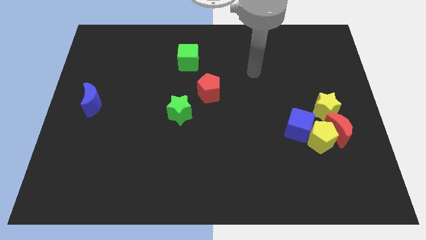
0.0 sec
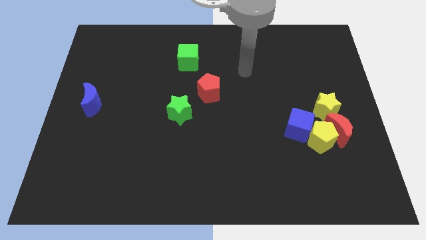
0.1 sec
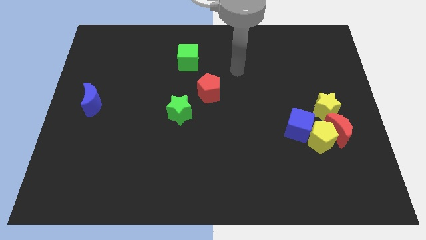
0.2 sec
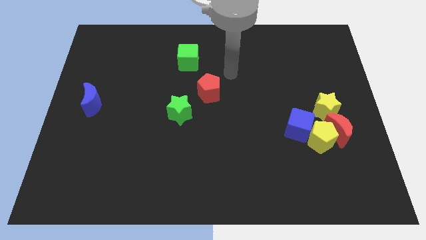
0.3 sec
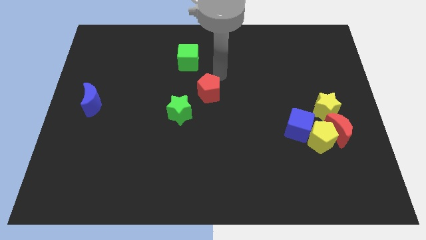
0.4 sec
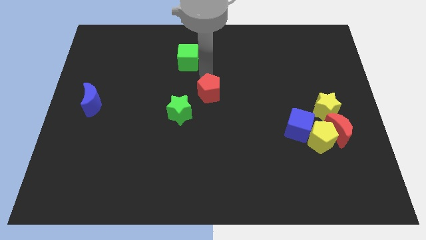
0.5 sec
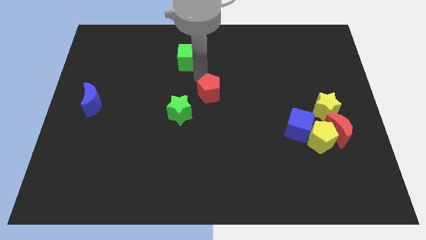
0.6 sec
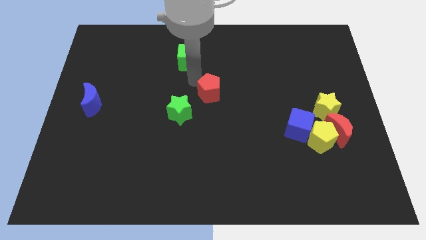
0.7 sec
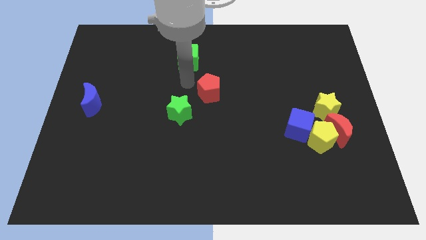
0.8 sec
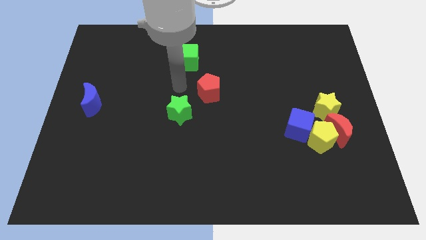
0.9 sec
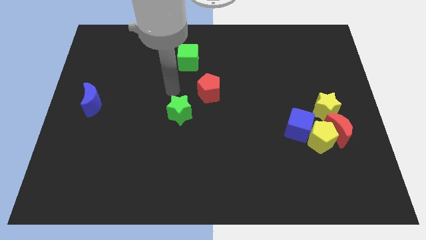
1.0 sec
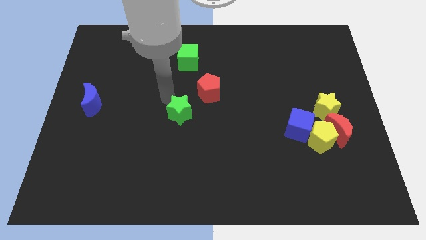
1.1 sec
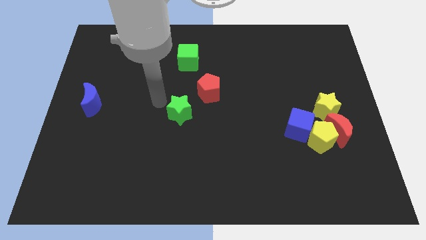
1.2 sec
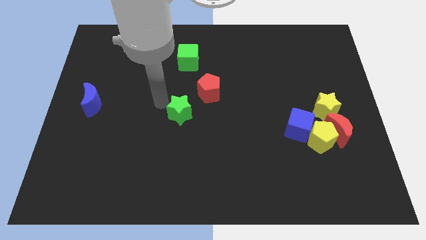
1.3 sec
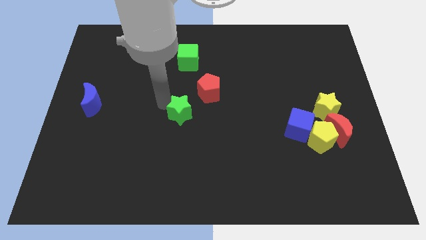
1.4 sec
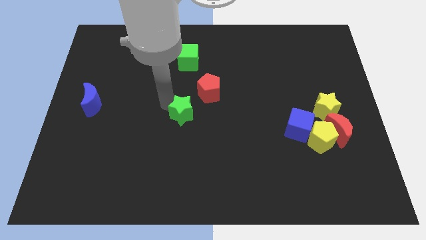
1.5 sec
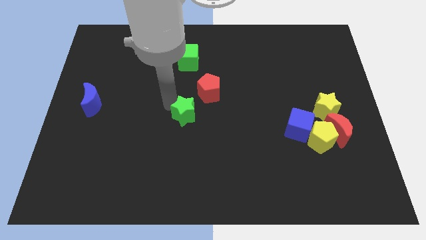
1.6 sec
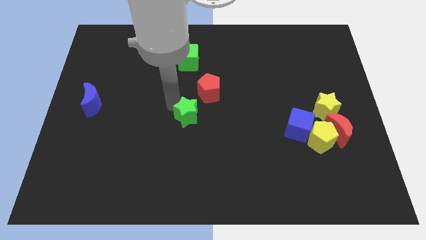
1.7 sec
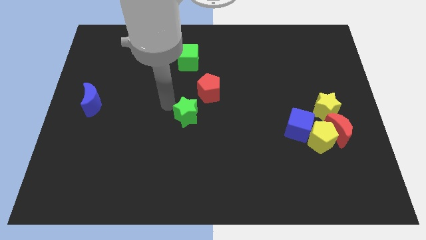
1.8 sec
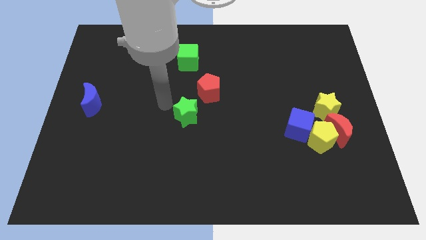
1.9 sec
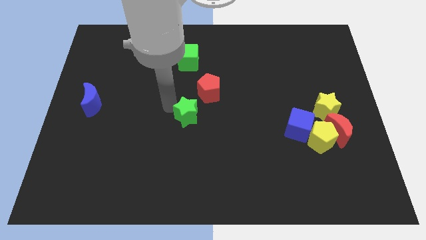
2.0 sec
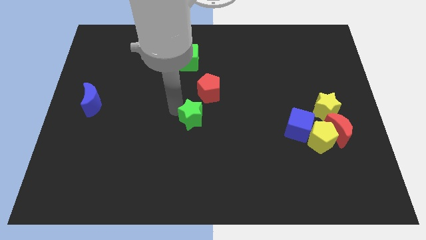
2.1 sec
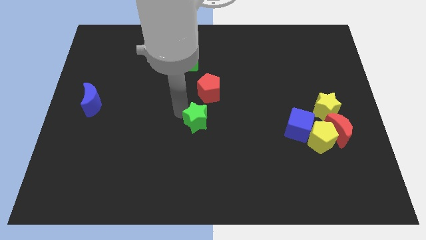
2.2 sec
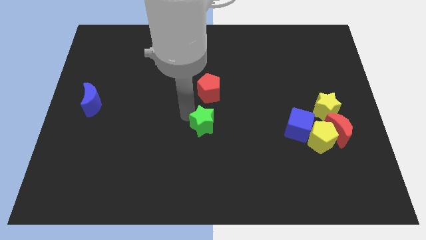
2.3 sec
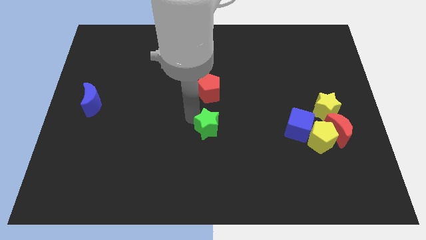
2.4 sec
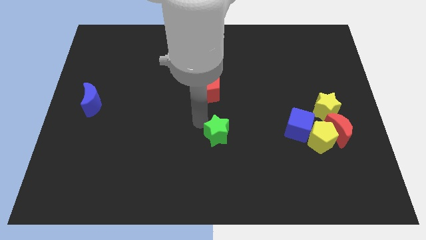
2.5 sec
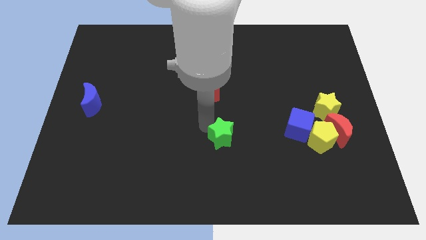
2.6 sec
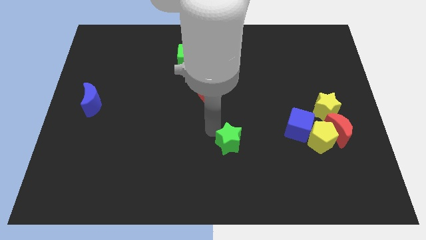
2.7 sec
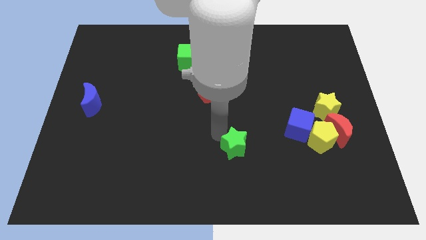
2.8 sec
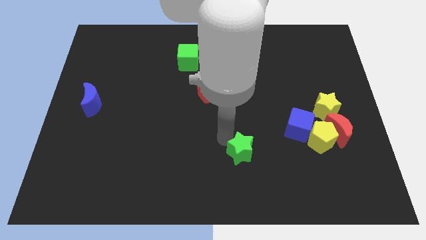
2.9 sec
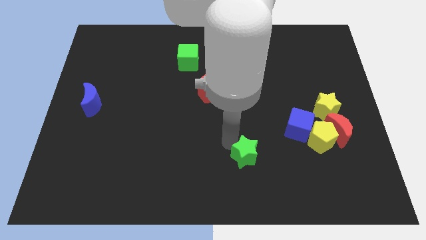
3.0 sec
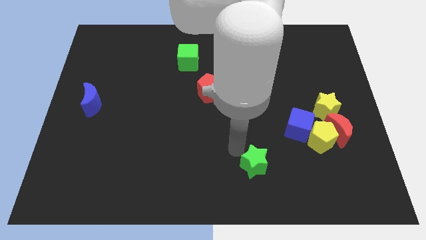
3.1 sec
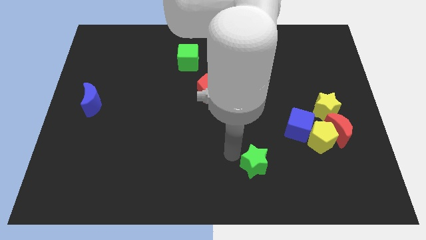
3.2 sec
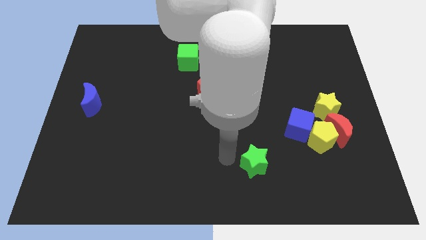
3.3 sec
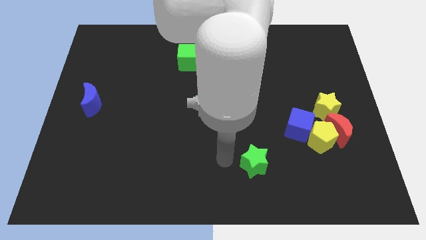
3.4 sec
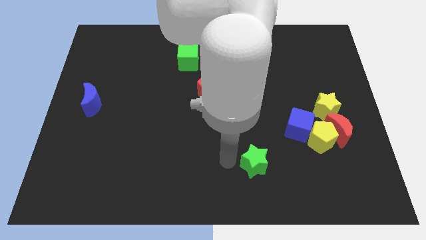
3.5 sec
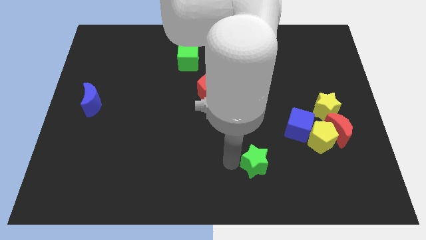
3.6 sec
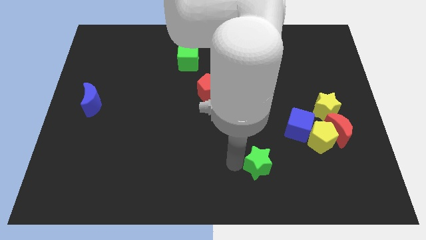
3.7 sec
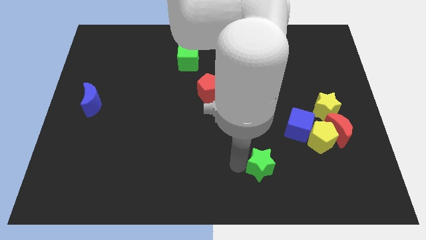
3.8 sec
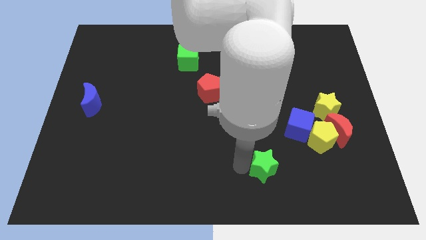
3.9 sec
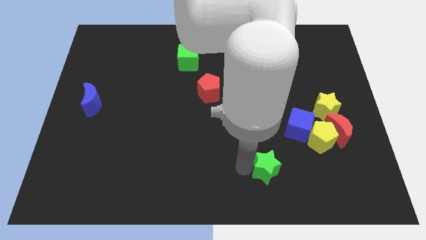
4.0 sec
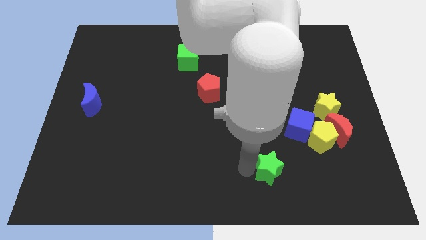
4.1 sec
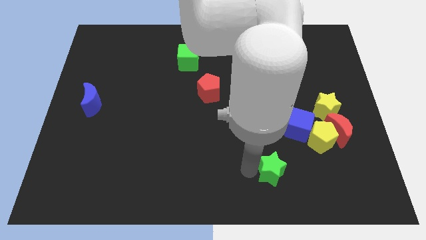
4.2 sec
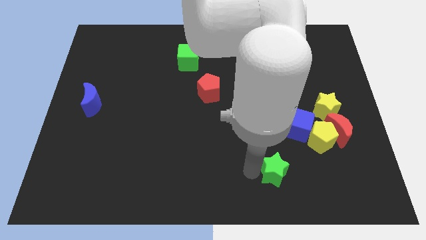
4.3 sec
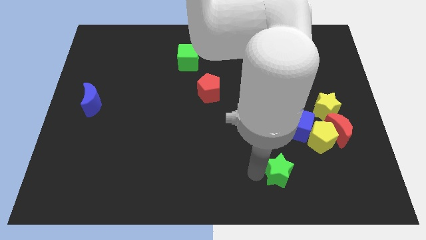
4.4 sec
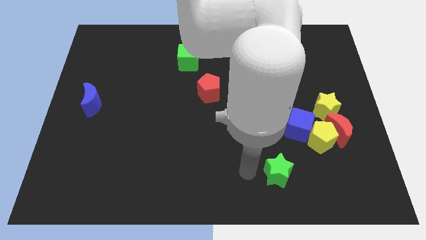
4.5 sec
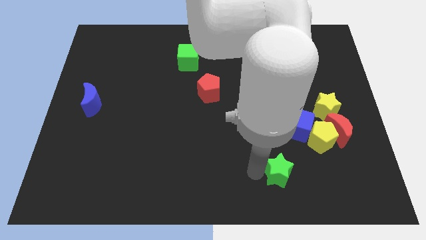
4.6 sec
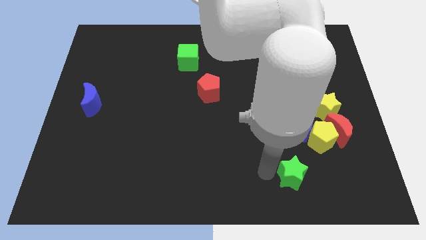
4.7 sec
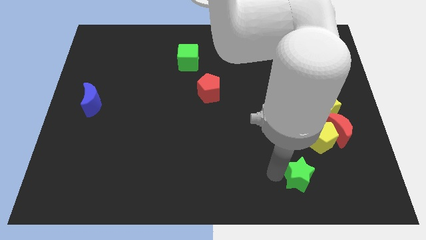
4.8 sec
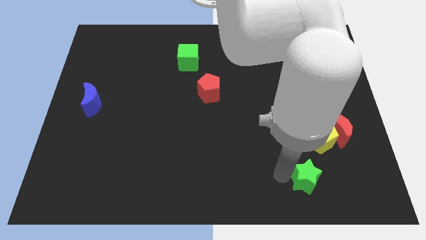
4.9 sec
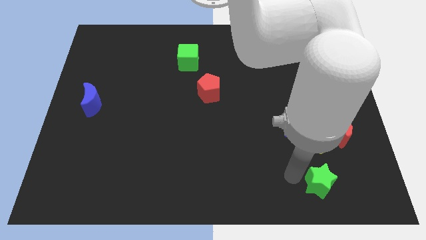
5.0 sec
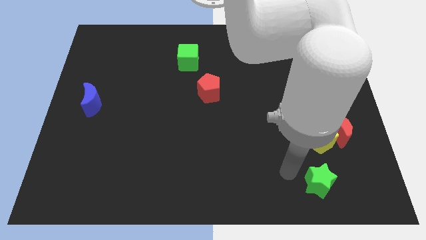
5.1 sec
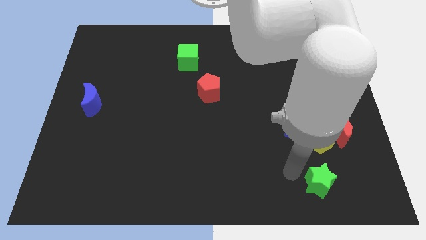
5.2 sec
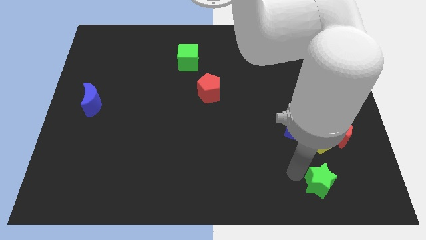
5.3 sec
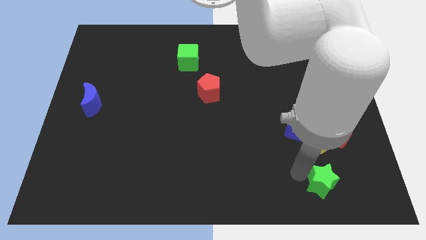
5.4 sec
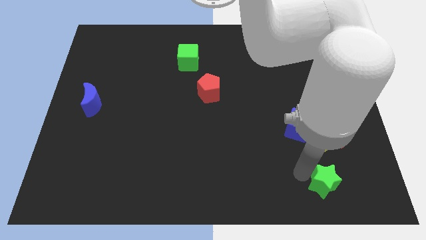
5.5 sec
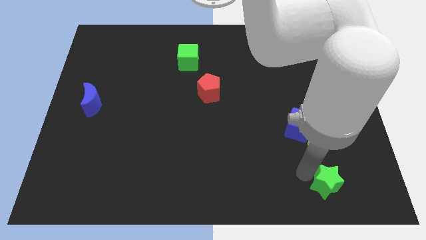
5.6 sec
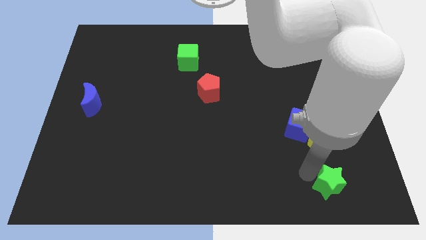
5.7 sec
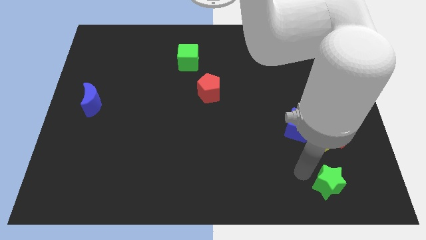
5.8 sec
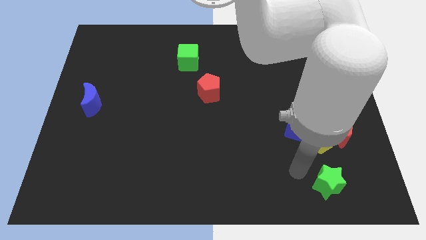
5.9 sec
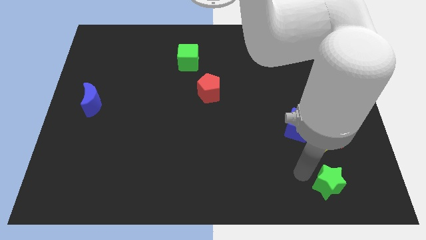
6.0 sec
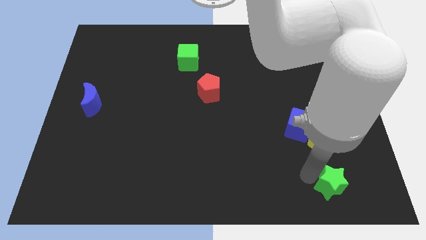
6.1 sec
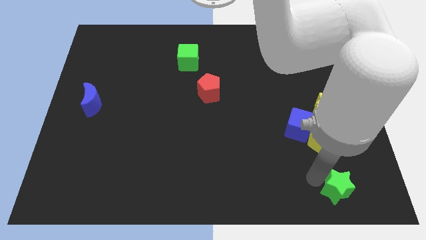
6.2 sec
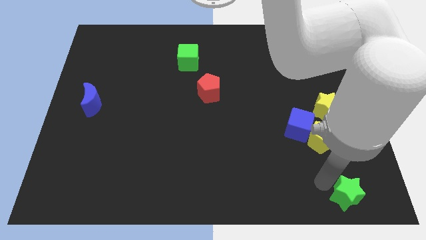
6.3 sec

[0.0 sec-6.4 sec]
slide the green star to the bottom right of the board

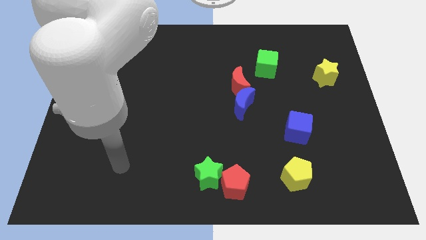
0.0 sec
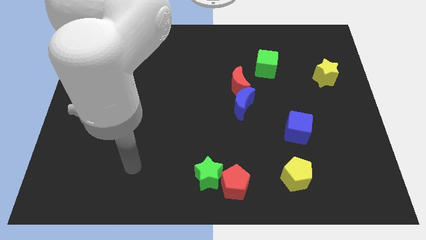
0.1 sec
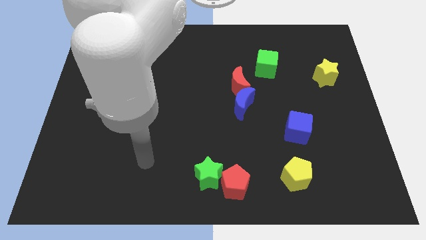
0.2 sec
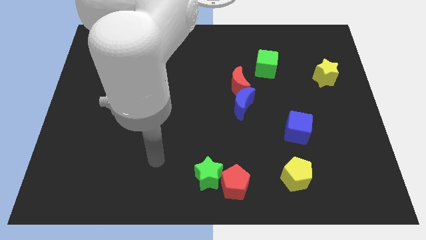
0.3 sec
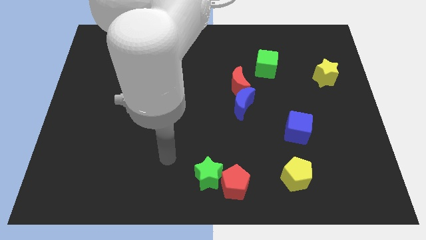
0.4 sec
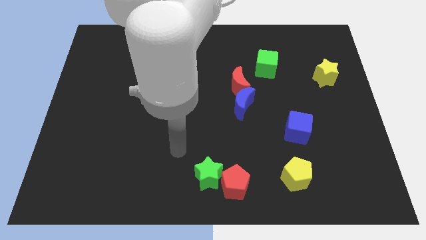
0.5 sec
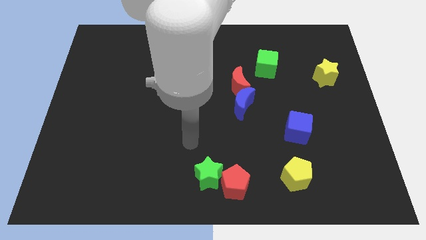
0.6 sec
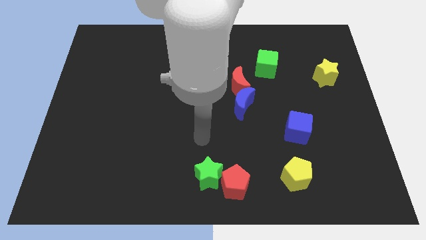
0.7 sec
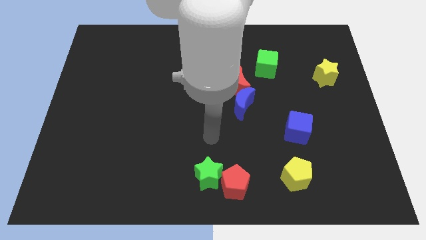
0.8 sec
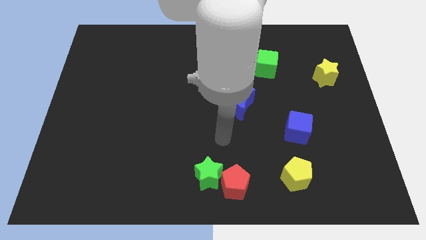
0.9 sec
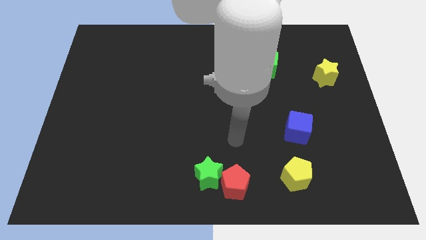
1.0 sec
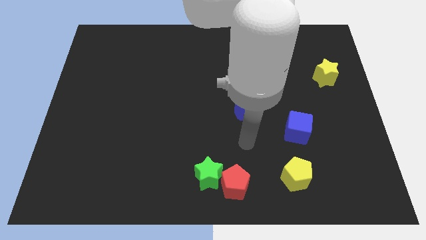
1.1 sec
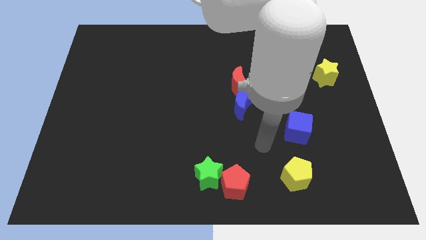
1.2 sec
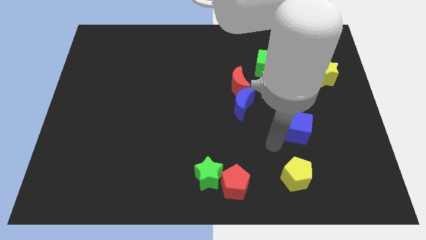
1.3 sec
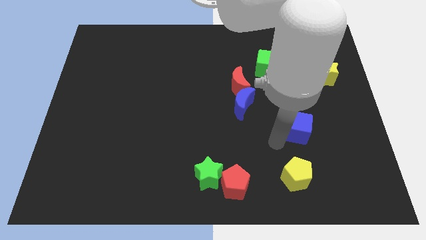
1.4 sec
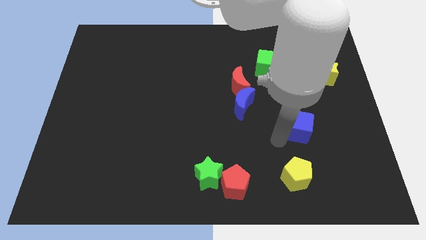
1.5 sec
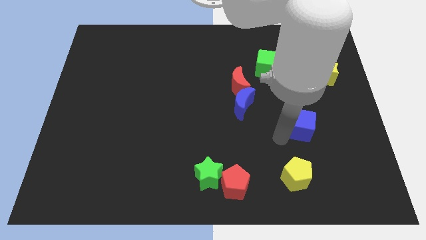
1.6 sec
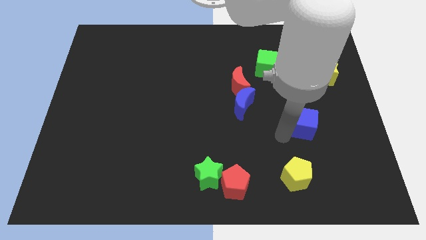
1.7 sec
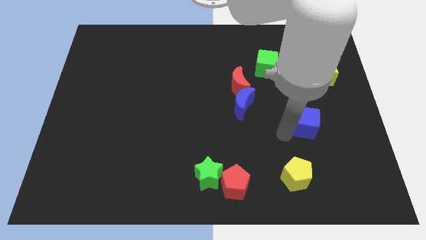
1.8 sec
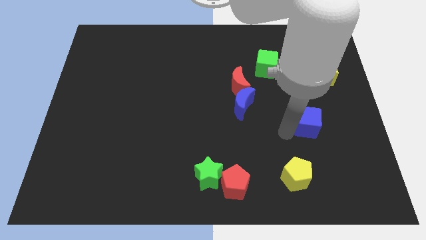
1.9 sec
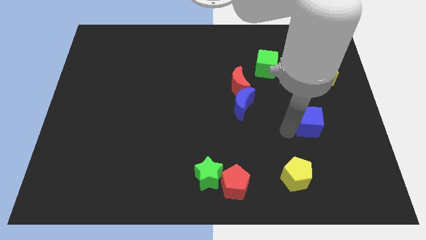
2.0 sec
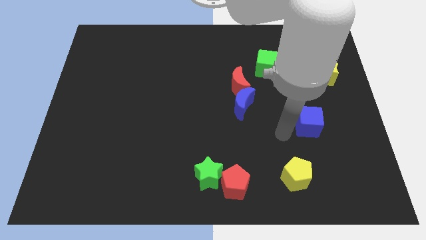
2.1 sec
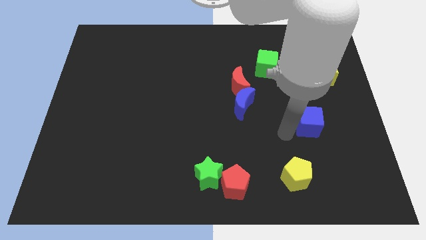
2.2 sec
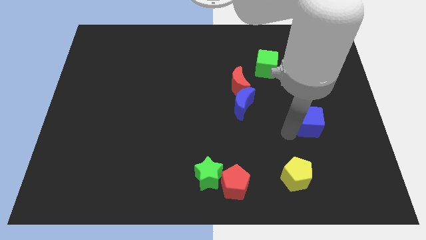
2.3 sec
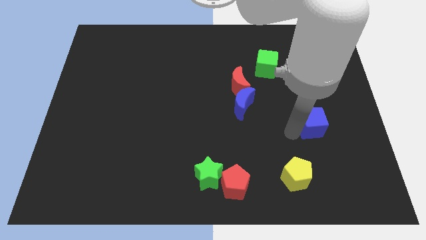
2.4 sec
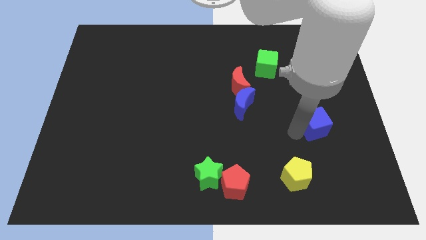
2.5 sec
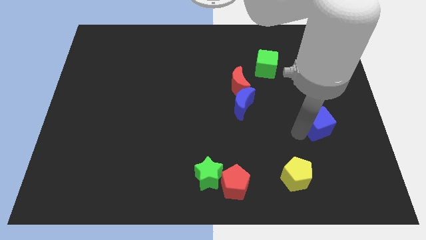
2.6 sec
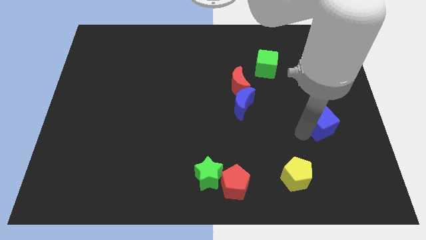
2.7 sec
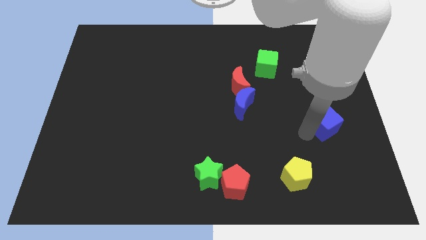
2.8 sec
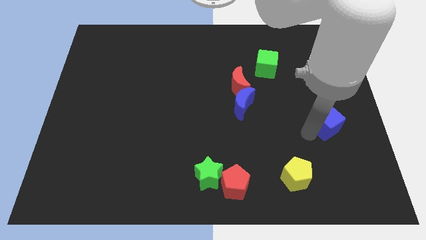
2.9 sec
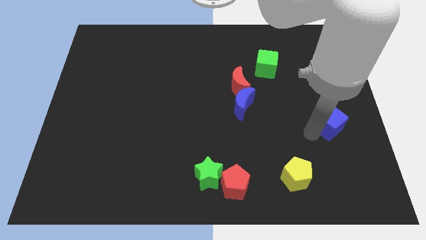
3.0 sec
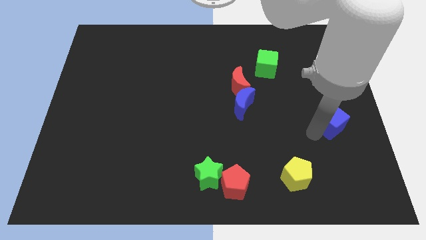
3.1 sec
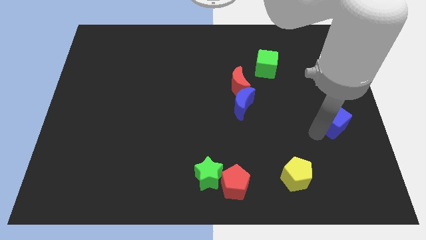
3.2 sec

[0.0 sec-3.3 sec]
slide the blue cube to the center right
